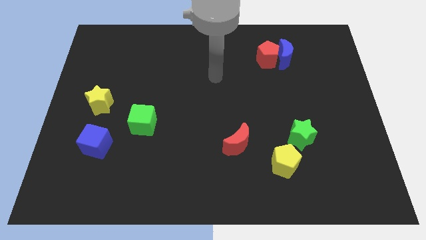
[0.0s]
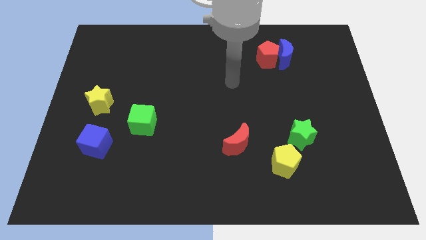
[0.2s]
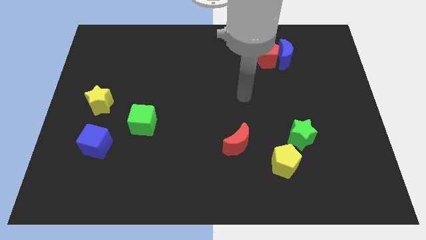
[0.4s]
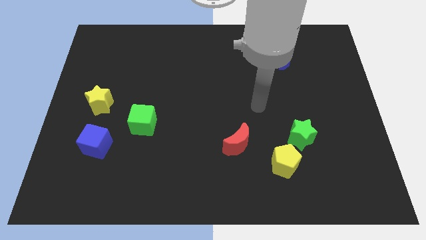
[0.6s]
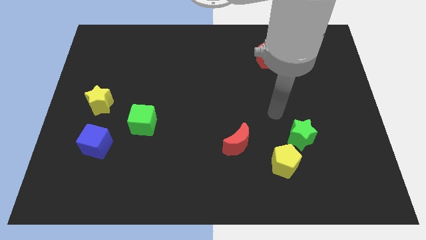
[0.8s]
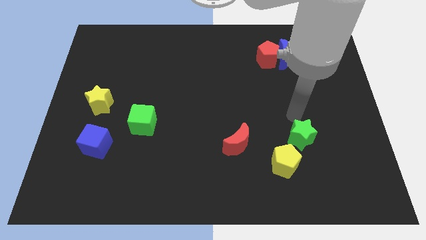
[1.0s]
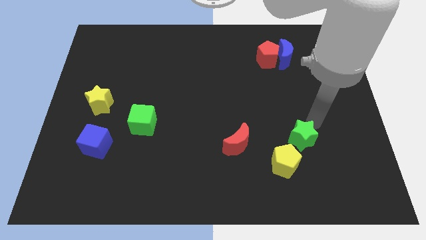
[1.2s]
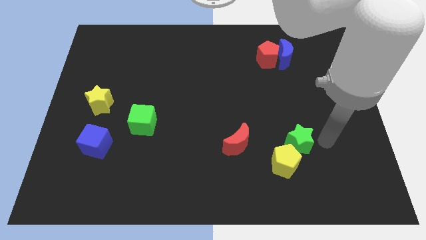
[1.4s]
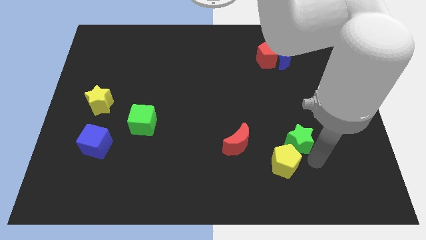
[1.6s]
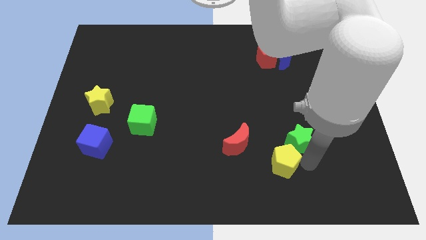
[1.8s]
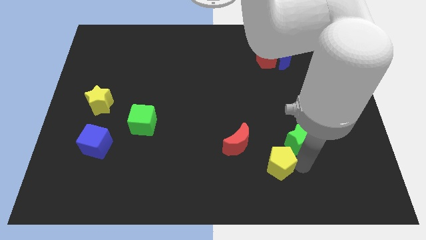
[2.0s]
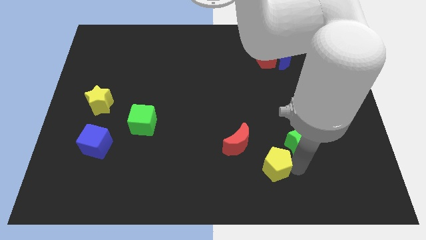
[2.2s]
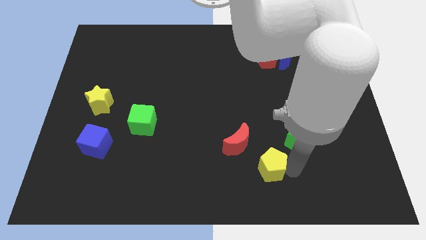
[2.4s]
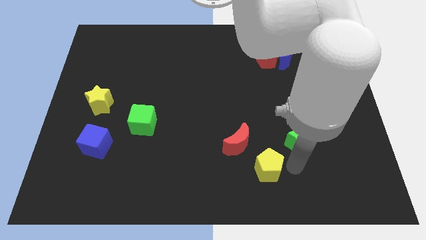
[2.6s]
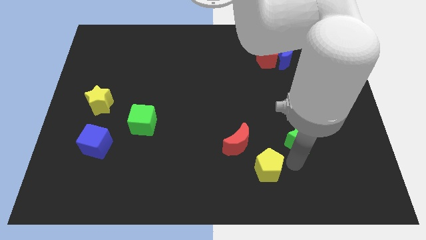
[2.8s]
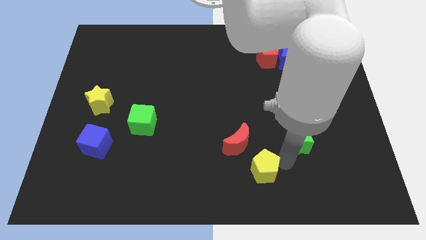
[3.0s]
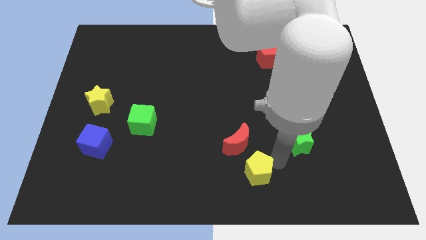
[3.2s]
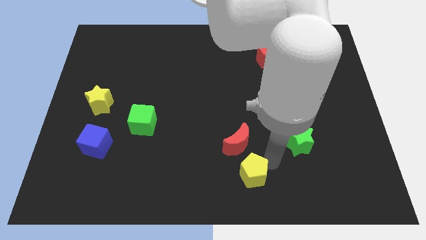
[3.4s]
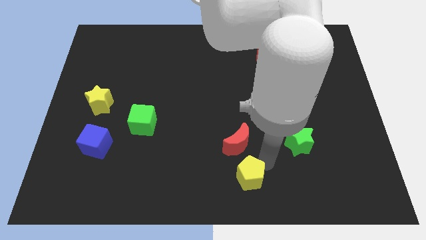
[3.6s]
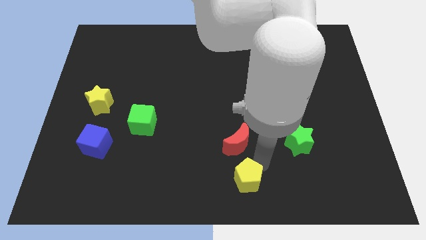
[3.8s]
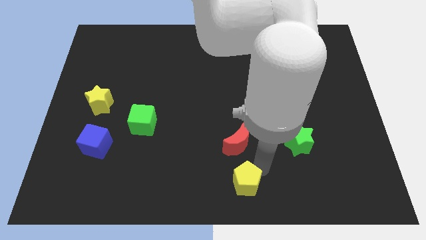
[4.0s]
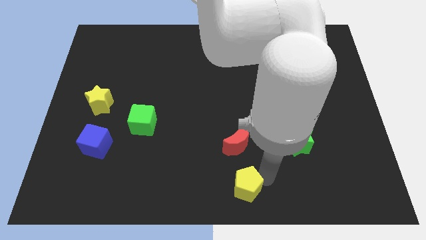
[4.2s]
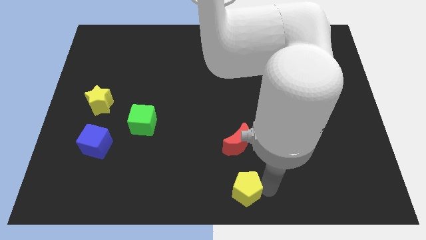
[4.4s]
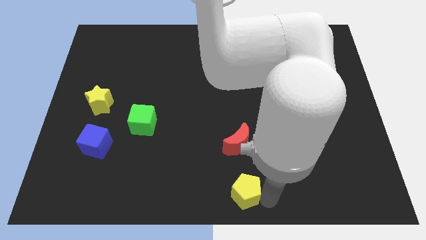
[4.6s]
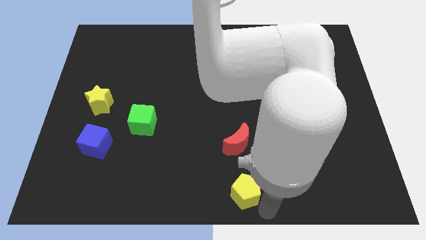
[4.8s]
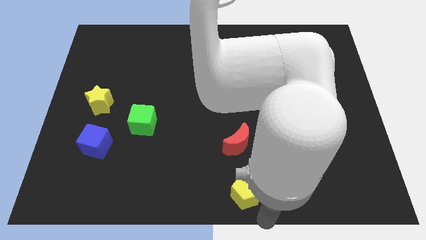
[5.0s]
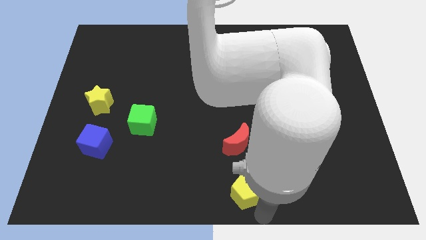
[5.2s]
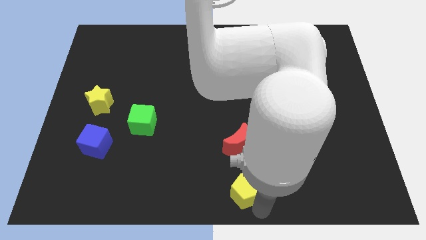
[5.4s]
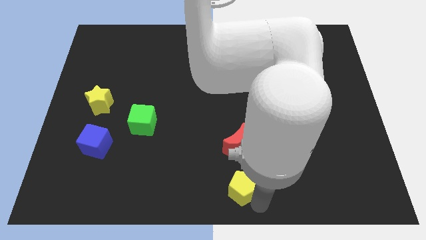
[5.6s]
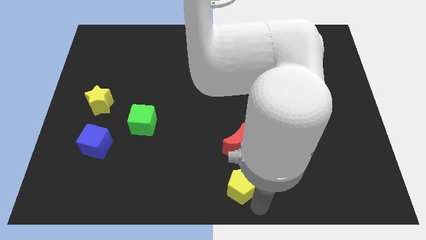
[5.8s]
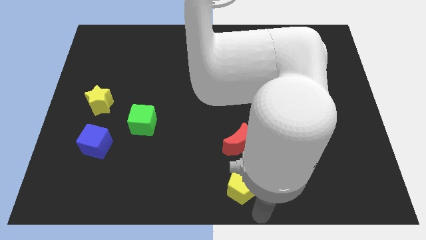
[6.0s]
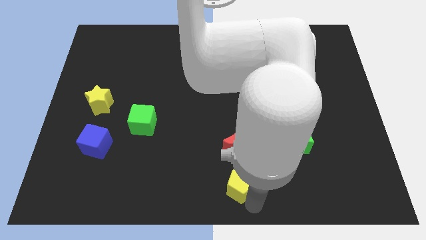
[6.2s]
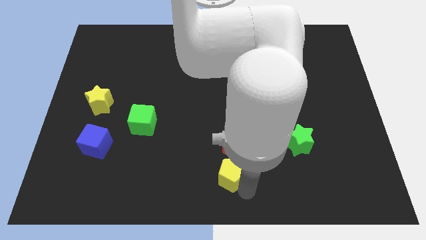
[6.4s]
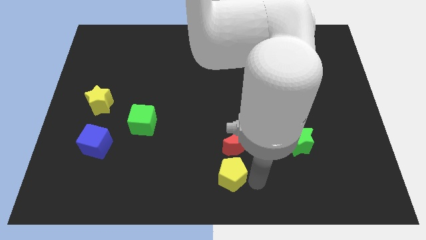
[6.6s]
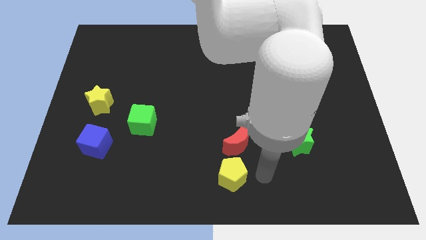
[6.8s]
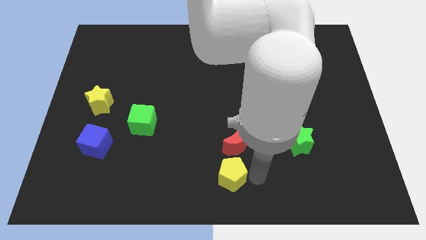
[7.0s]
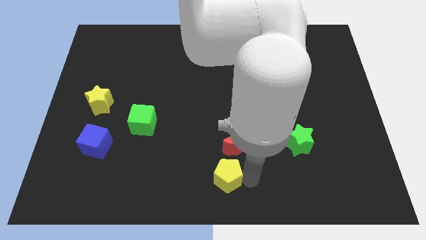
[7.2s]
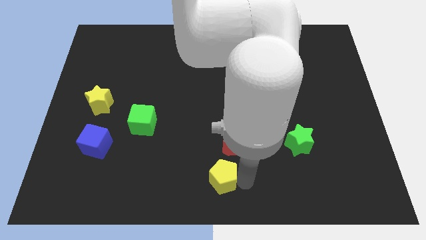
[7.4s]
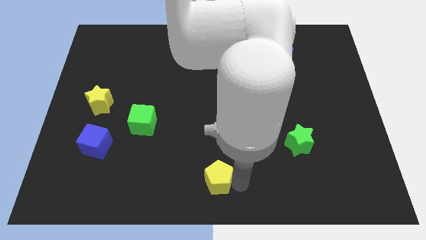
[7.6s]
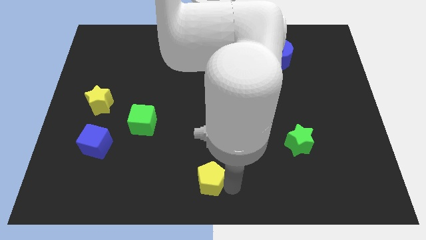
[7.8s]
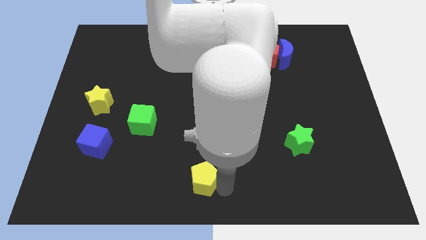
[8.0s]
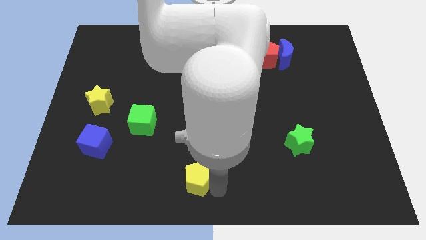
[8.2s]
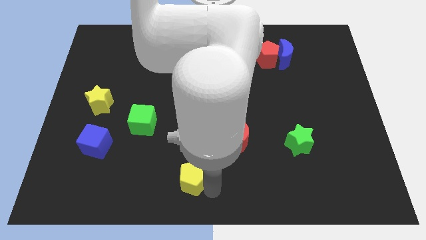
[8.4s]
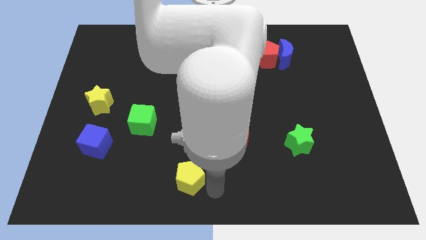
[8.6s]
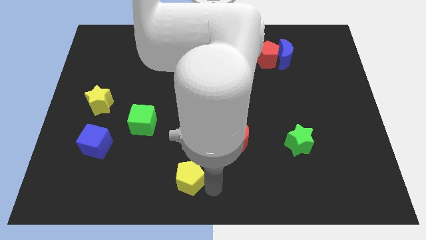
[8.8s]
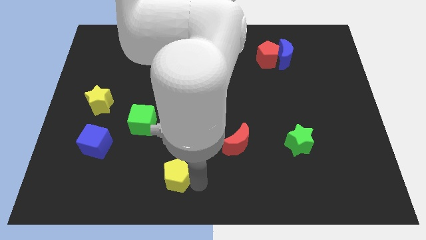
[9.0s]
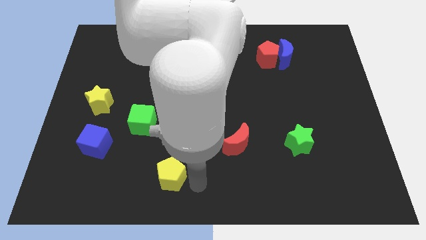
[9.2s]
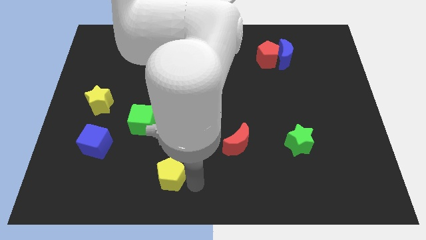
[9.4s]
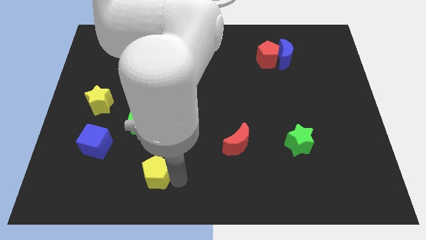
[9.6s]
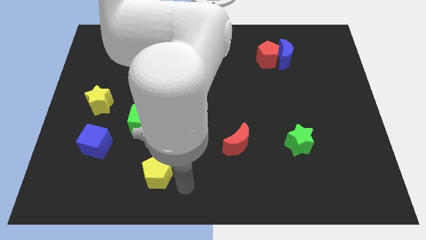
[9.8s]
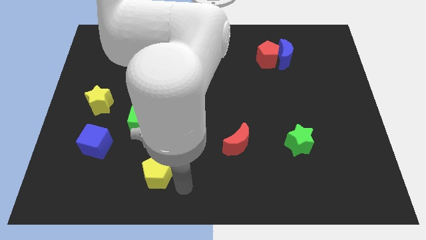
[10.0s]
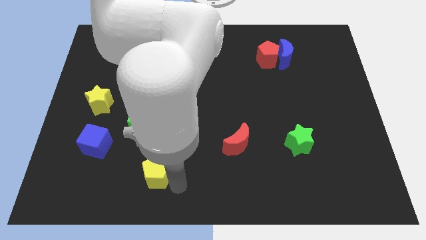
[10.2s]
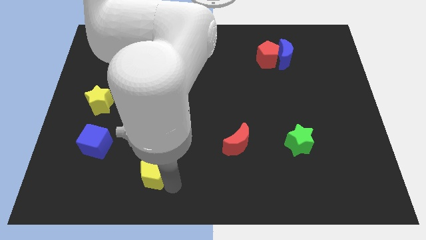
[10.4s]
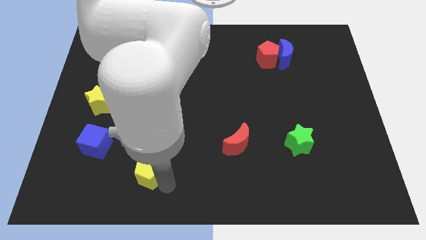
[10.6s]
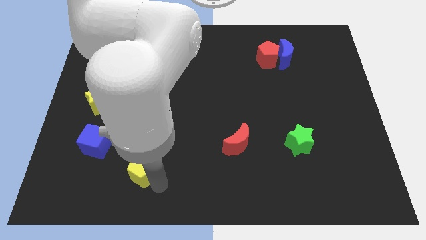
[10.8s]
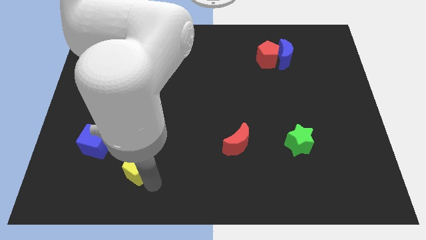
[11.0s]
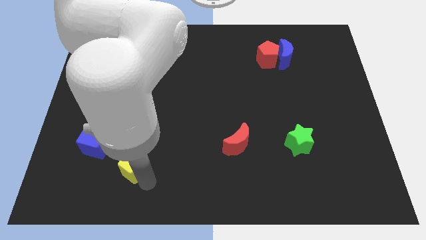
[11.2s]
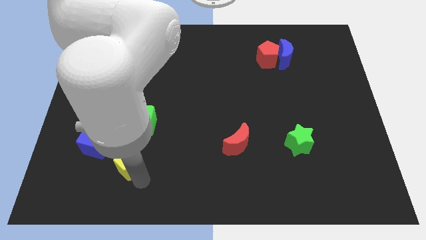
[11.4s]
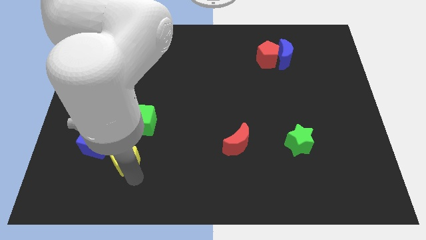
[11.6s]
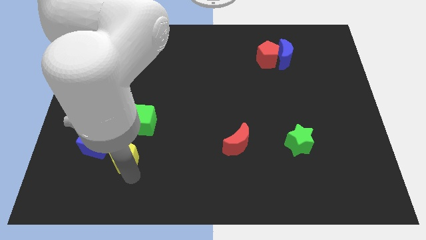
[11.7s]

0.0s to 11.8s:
put the yellow pentagon to the bottom left side of the green cube

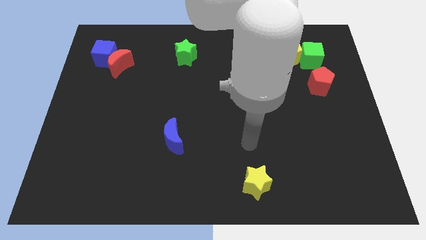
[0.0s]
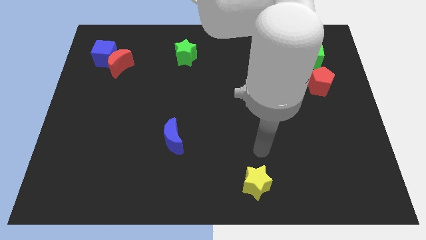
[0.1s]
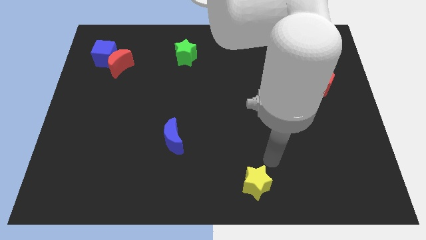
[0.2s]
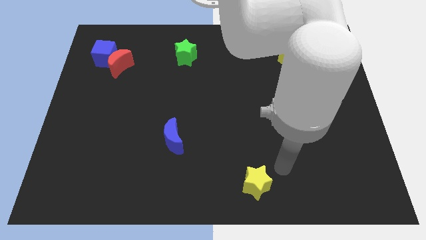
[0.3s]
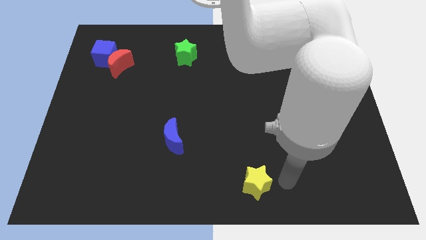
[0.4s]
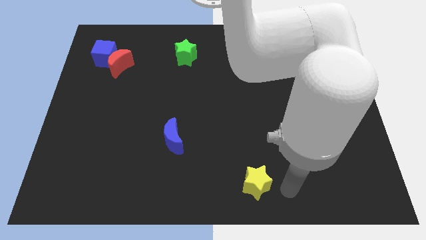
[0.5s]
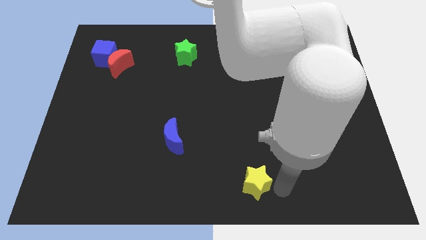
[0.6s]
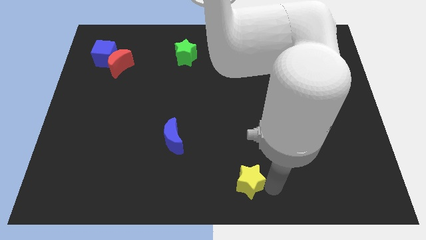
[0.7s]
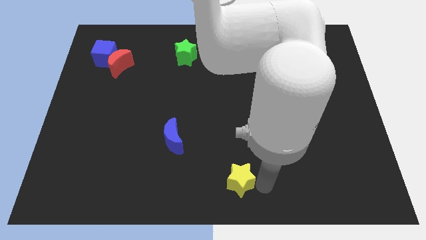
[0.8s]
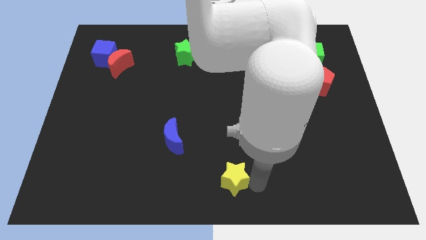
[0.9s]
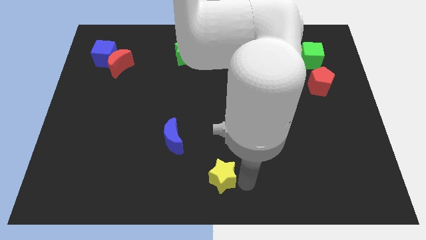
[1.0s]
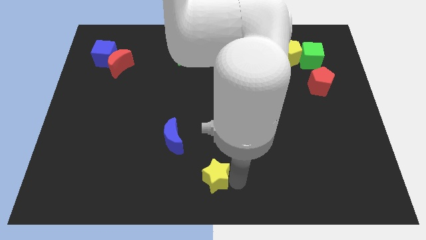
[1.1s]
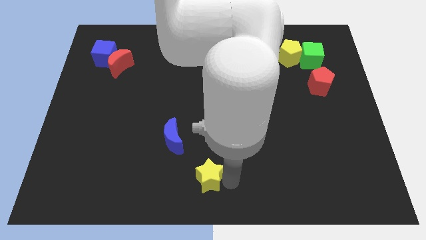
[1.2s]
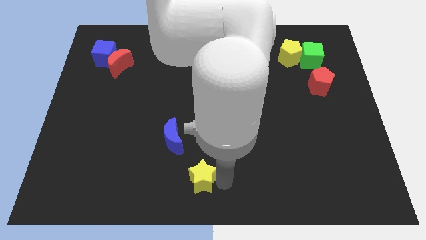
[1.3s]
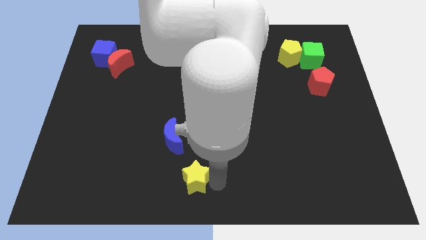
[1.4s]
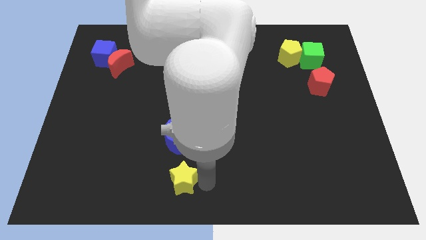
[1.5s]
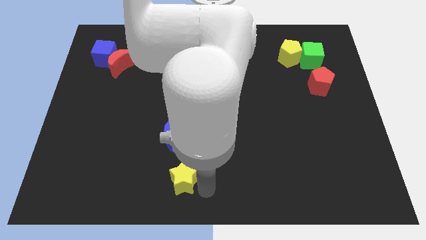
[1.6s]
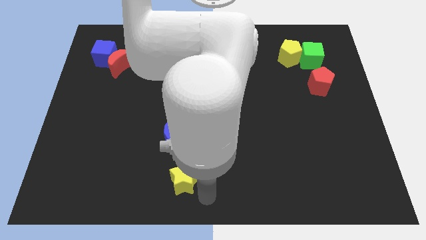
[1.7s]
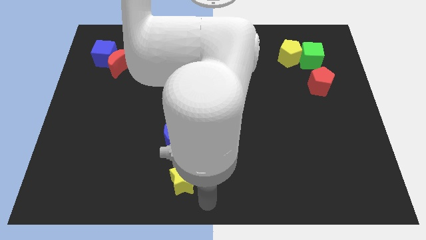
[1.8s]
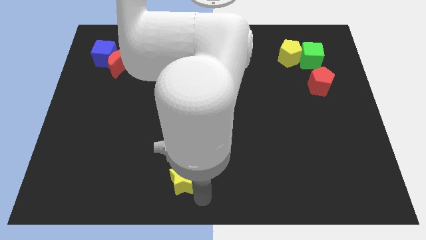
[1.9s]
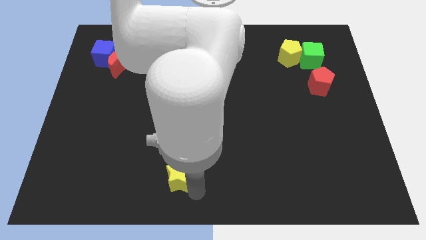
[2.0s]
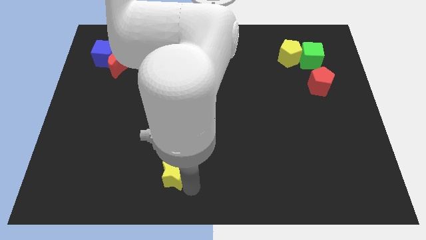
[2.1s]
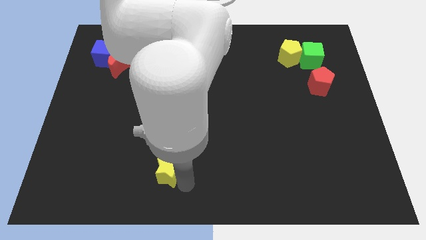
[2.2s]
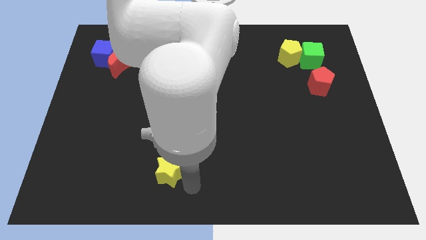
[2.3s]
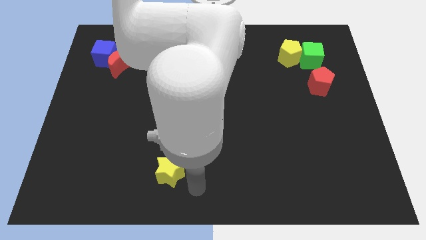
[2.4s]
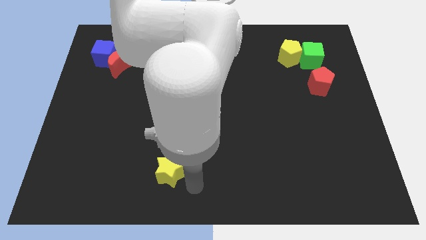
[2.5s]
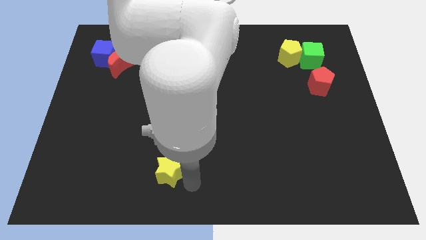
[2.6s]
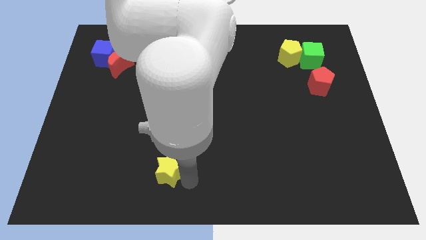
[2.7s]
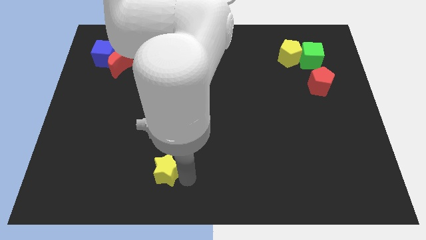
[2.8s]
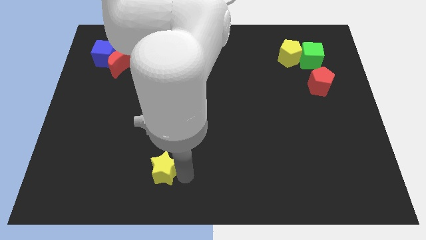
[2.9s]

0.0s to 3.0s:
push the yellow star to the bottom left of the blue moon
